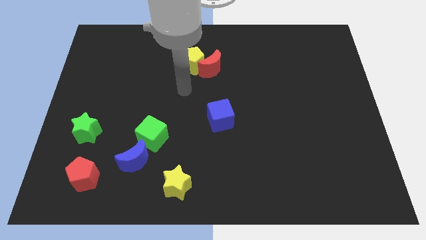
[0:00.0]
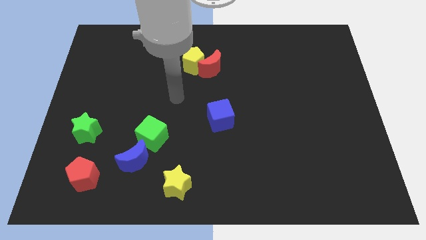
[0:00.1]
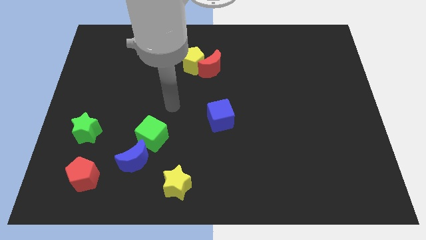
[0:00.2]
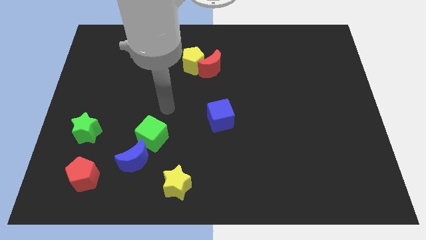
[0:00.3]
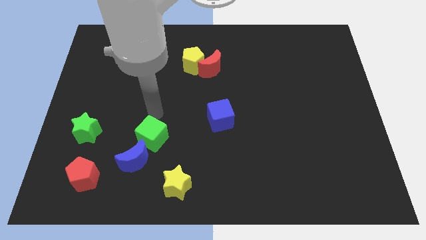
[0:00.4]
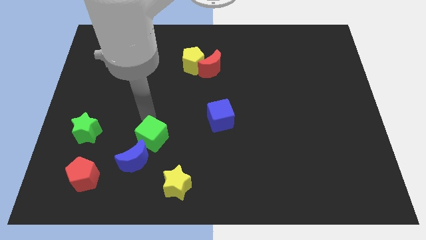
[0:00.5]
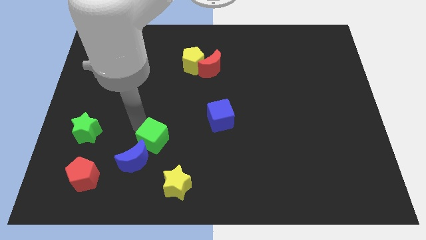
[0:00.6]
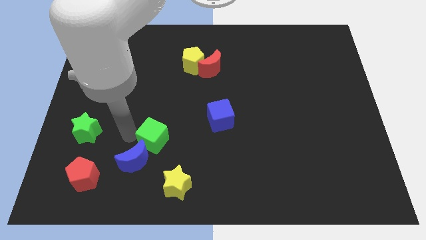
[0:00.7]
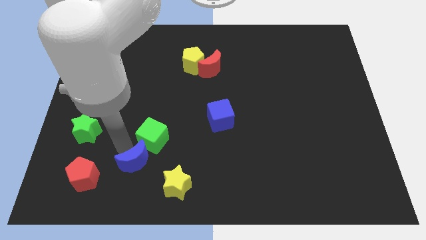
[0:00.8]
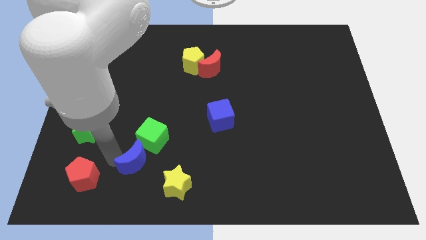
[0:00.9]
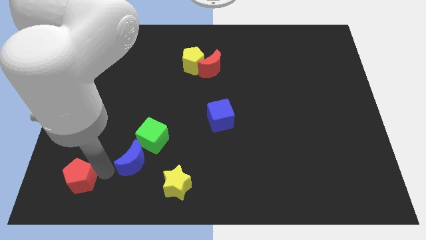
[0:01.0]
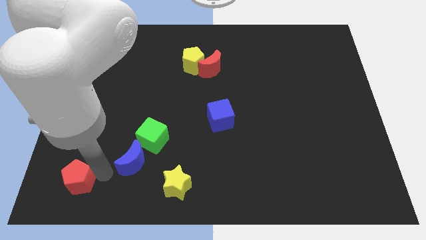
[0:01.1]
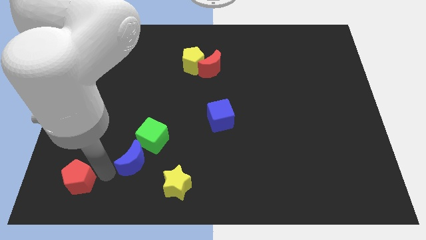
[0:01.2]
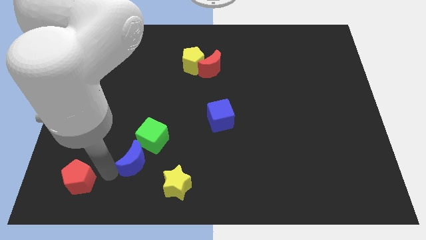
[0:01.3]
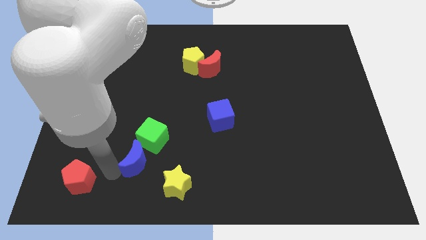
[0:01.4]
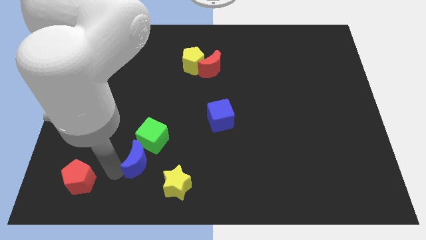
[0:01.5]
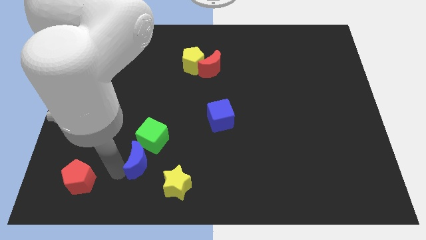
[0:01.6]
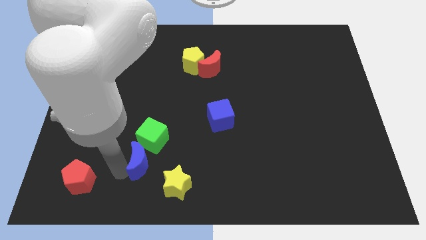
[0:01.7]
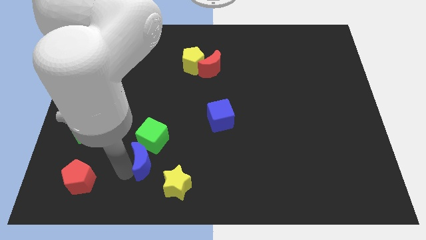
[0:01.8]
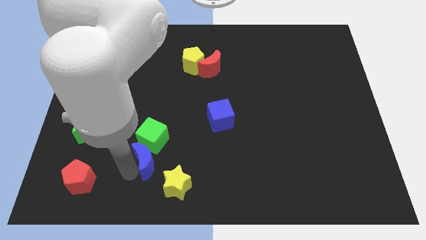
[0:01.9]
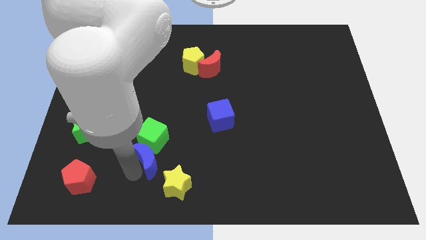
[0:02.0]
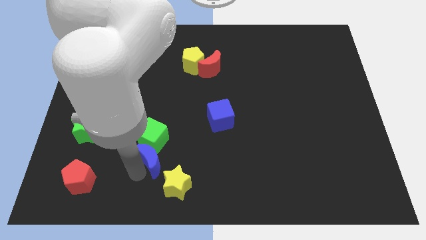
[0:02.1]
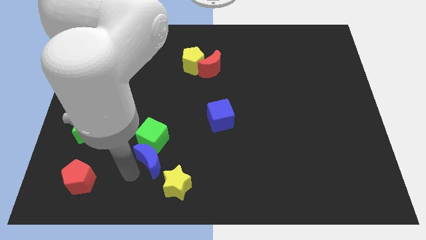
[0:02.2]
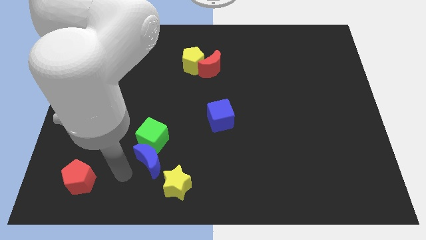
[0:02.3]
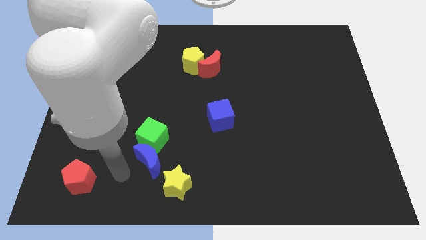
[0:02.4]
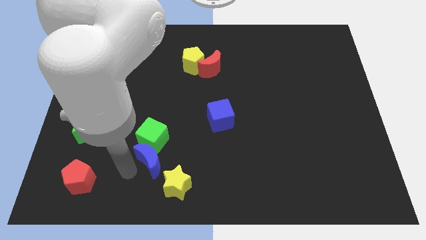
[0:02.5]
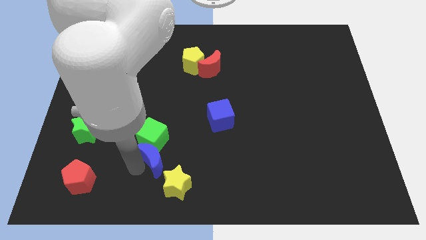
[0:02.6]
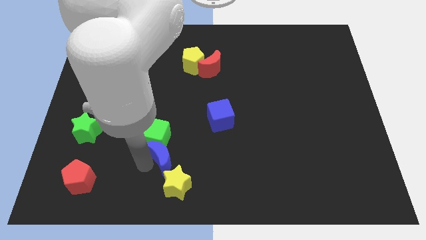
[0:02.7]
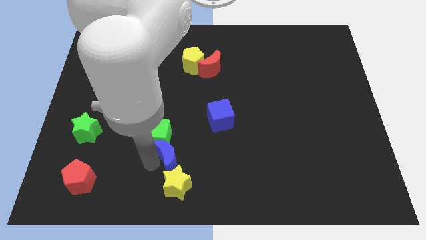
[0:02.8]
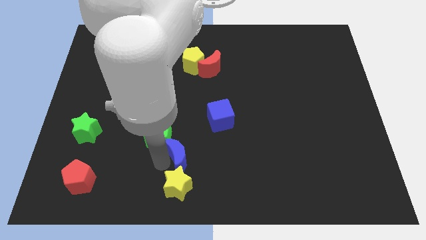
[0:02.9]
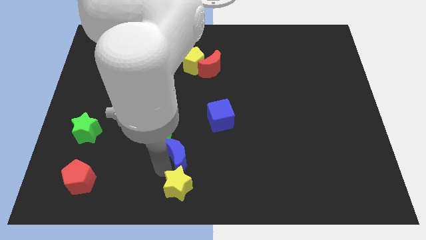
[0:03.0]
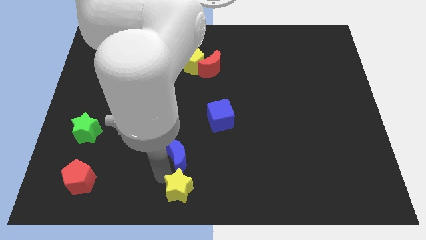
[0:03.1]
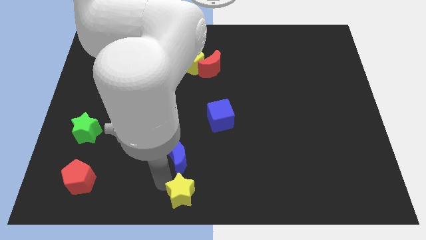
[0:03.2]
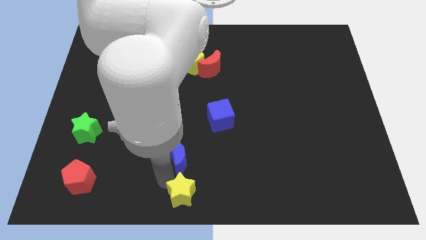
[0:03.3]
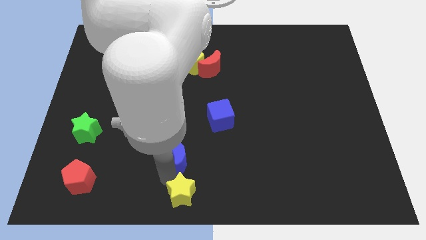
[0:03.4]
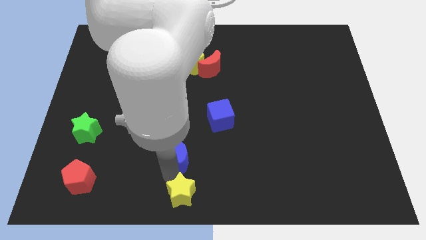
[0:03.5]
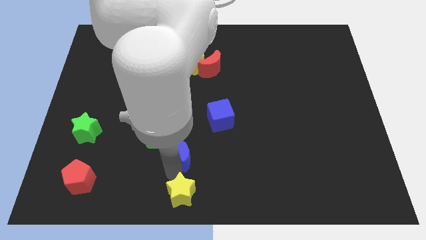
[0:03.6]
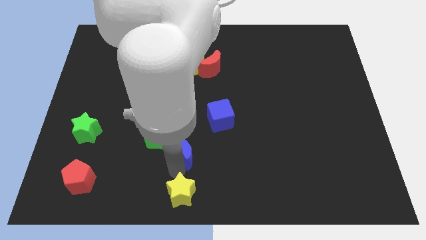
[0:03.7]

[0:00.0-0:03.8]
slightly move the blue moon upwards and then to the right

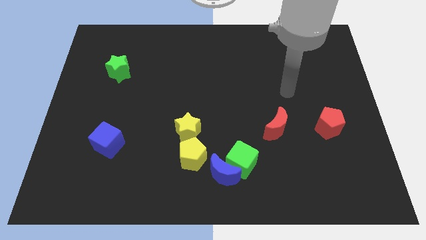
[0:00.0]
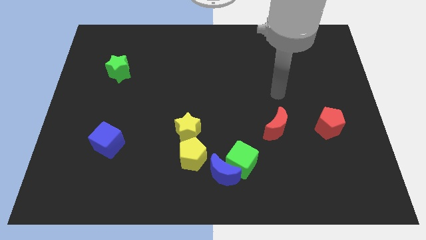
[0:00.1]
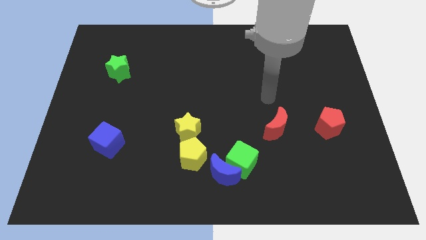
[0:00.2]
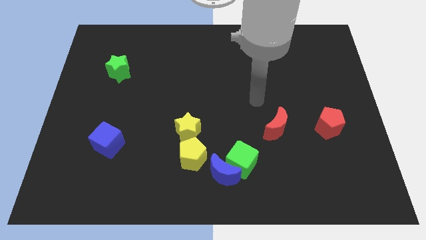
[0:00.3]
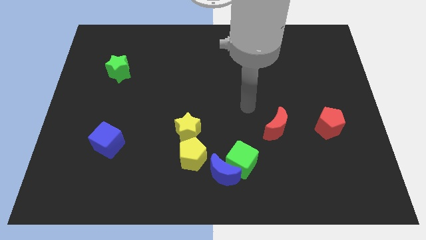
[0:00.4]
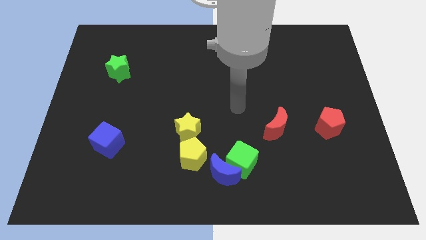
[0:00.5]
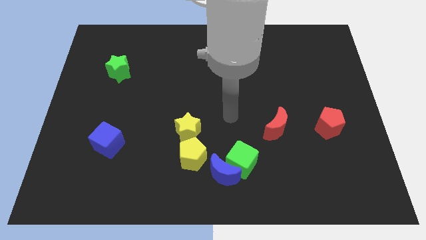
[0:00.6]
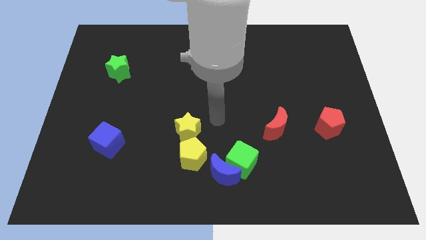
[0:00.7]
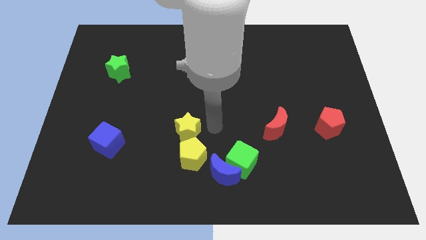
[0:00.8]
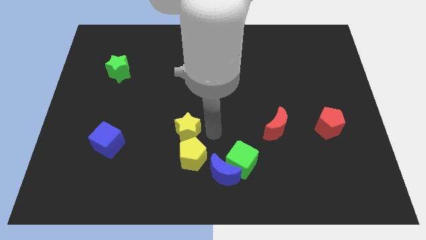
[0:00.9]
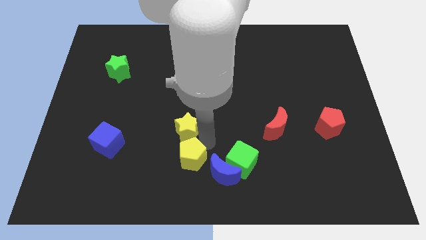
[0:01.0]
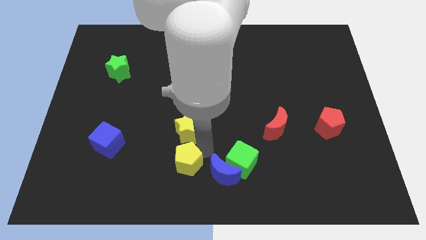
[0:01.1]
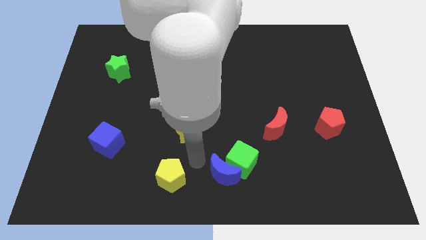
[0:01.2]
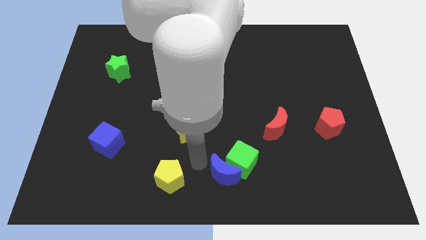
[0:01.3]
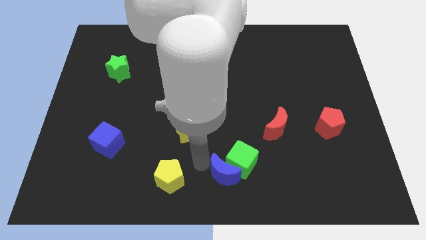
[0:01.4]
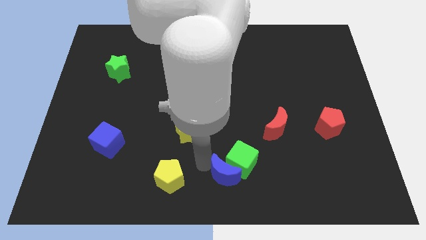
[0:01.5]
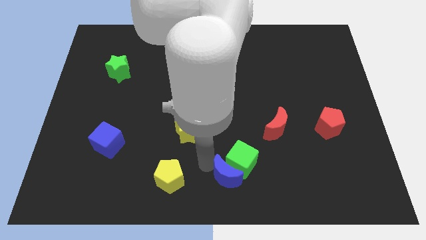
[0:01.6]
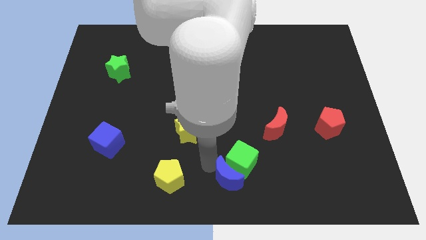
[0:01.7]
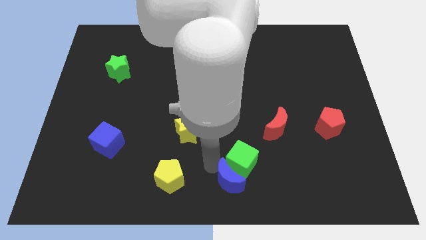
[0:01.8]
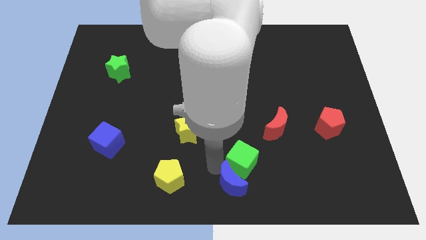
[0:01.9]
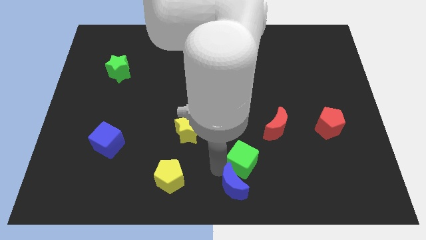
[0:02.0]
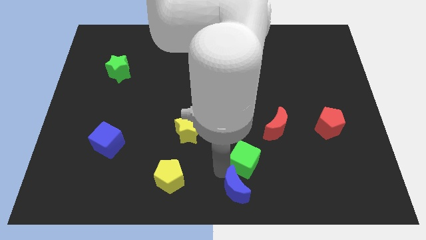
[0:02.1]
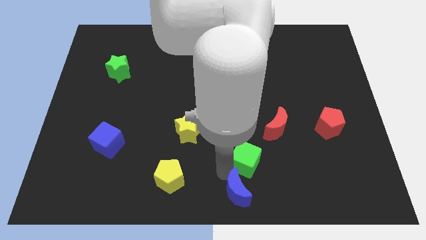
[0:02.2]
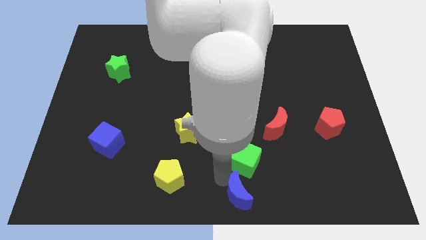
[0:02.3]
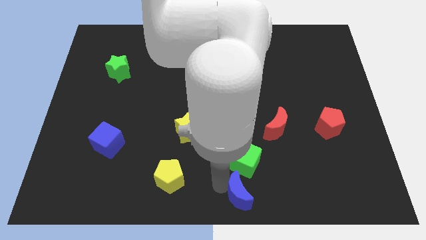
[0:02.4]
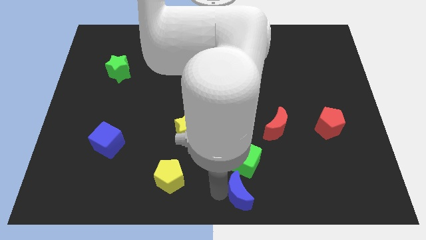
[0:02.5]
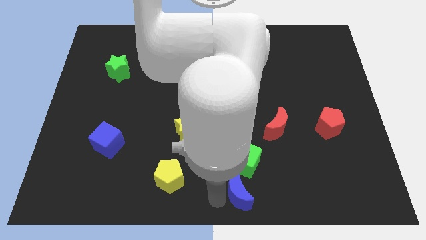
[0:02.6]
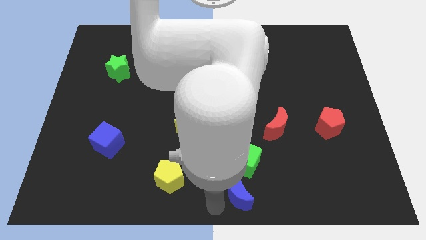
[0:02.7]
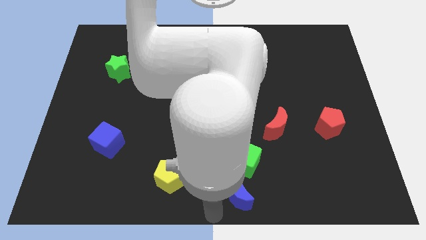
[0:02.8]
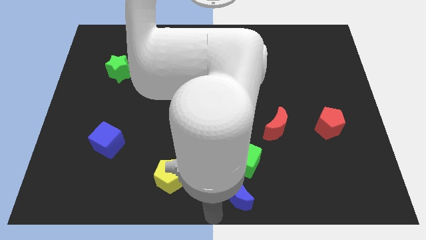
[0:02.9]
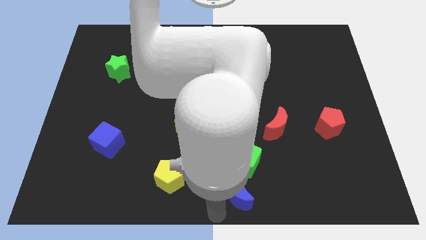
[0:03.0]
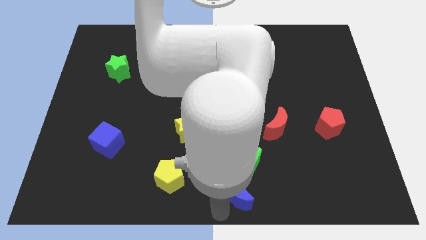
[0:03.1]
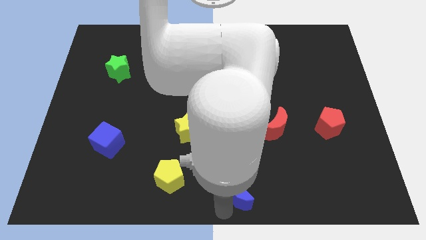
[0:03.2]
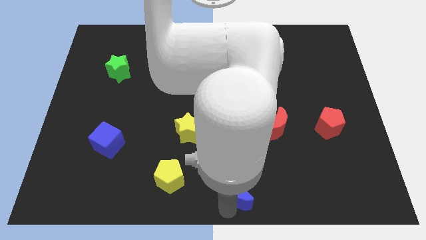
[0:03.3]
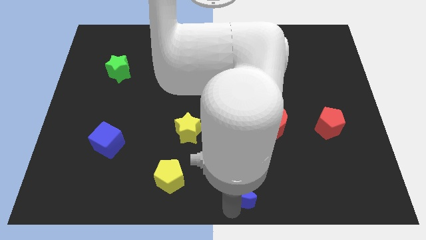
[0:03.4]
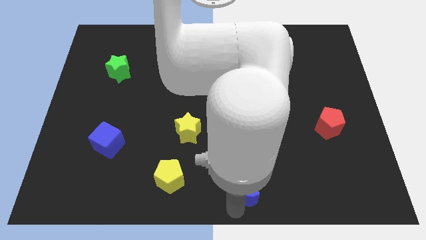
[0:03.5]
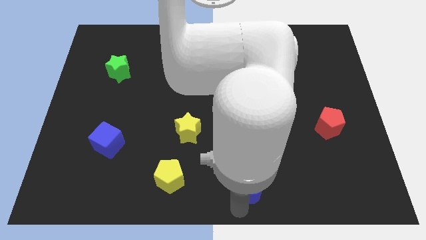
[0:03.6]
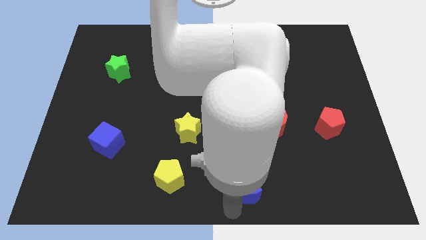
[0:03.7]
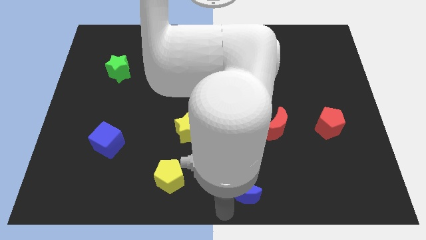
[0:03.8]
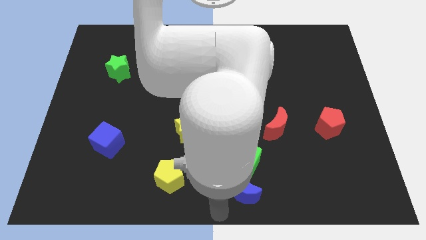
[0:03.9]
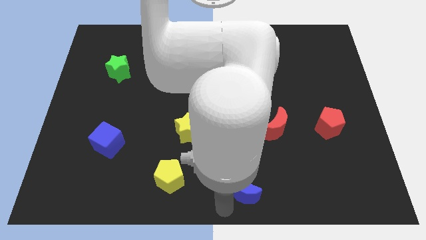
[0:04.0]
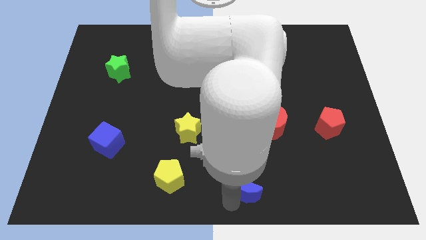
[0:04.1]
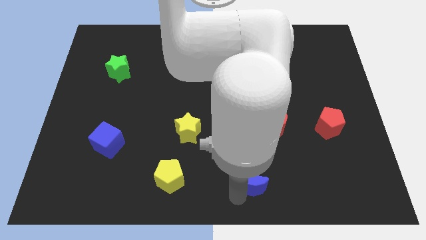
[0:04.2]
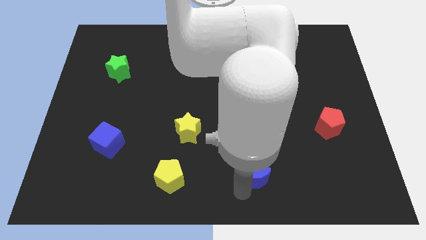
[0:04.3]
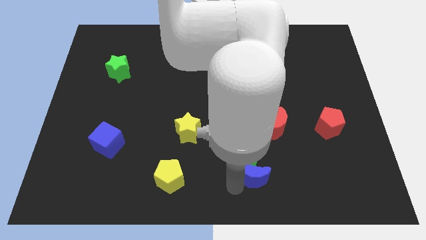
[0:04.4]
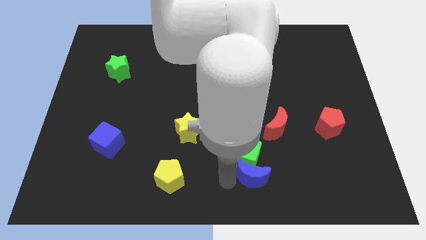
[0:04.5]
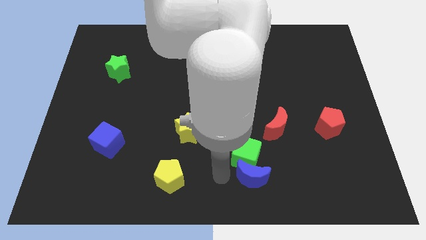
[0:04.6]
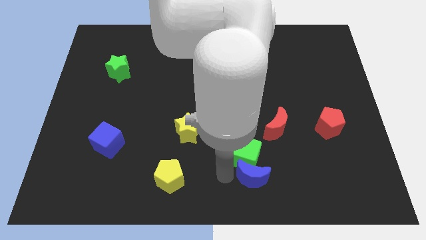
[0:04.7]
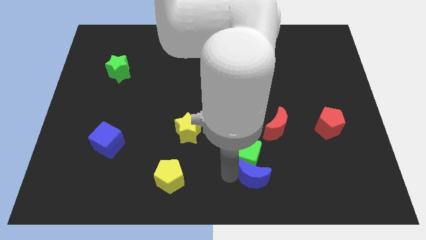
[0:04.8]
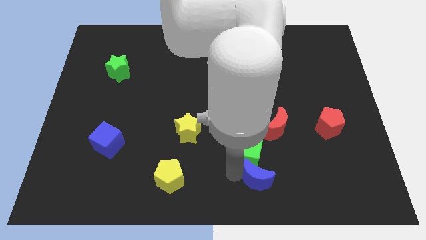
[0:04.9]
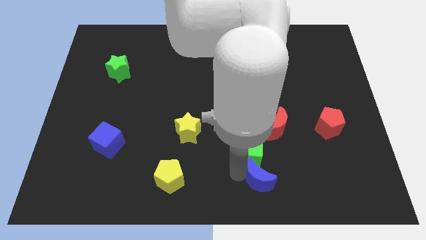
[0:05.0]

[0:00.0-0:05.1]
slide the blue moon to the right a little bit
